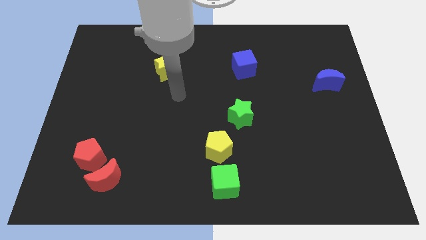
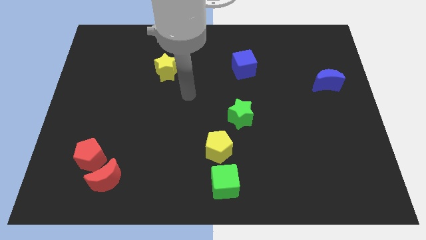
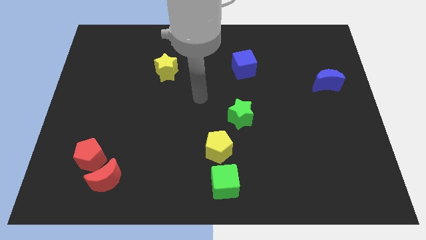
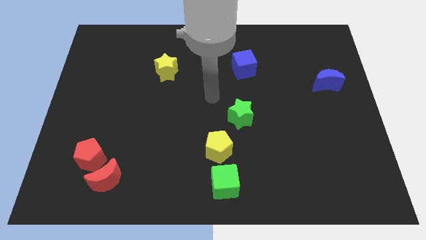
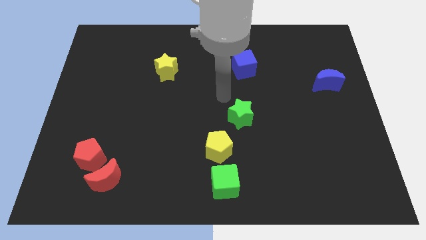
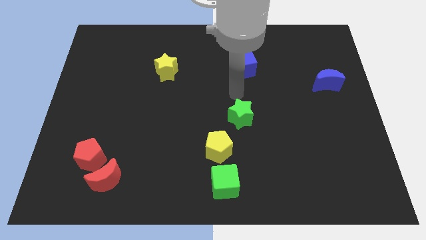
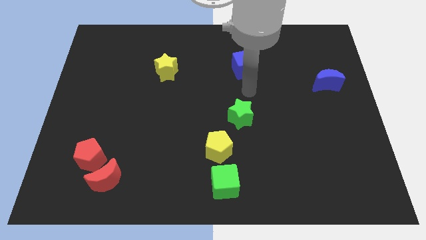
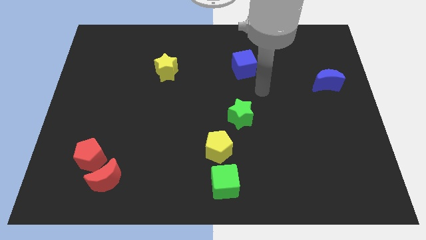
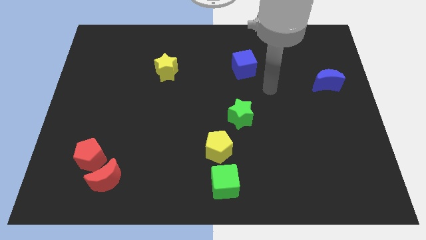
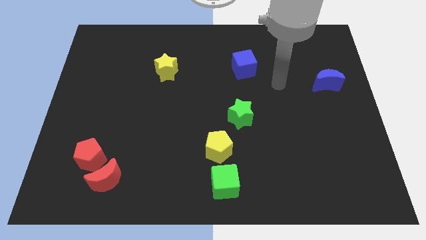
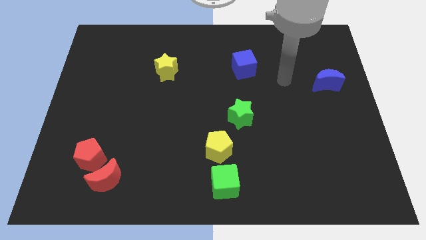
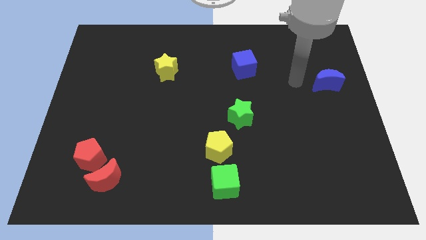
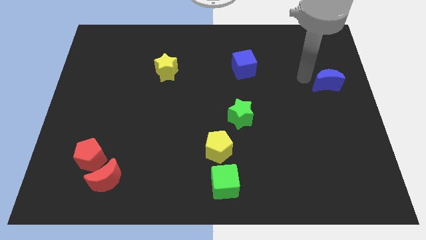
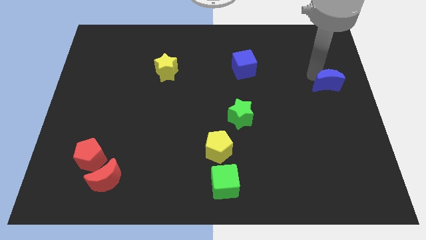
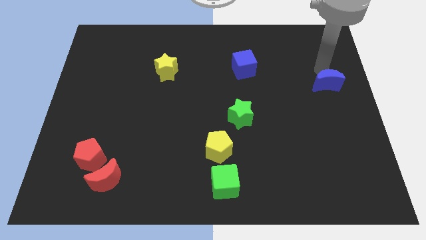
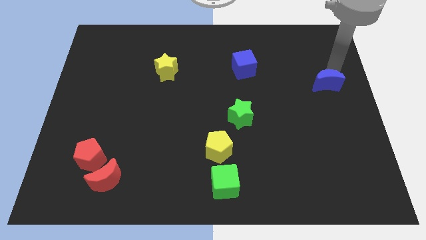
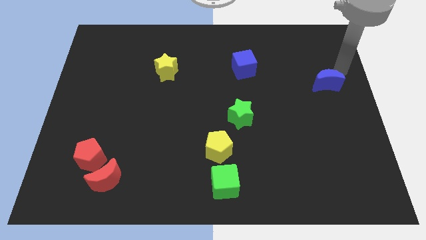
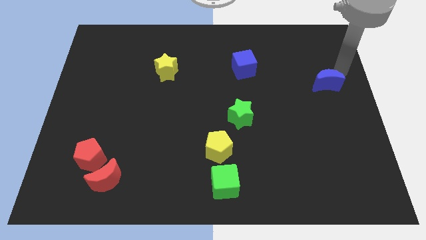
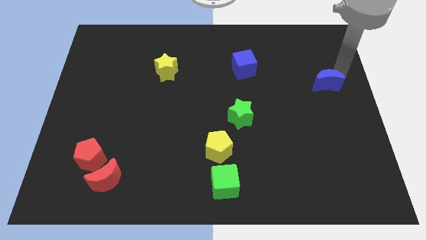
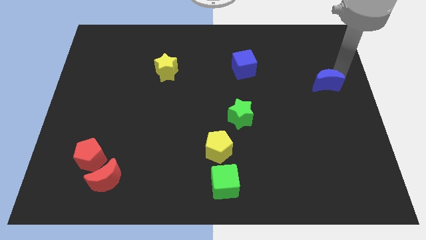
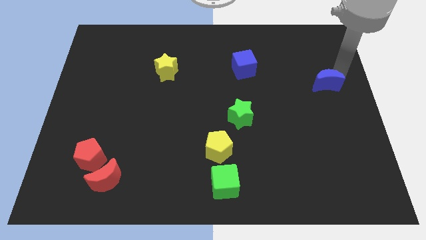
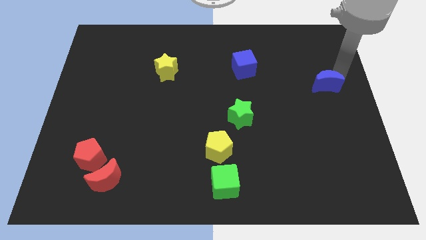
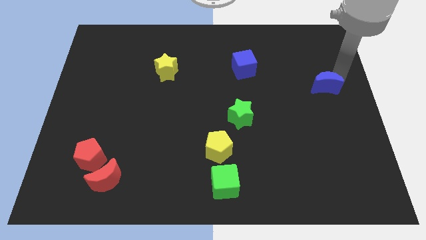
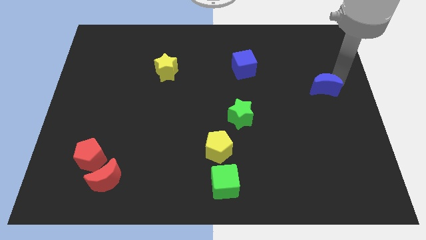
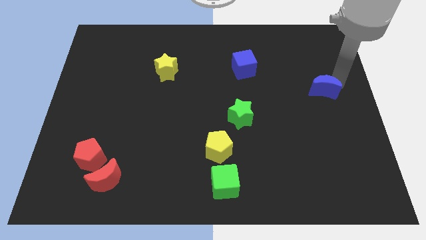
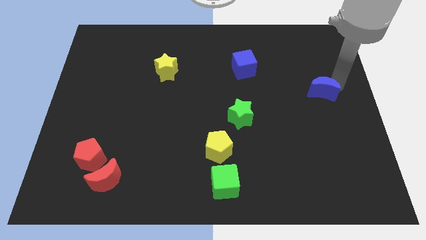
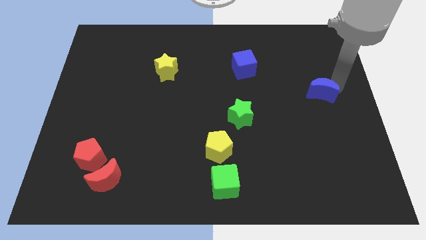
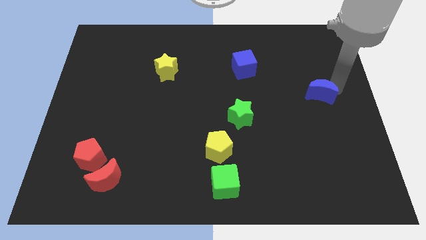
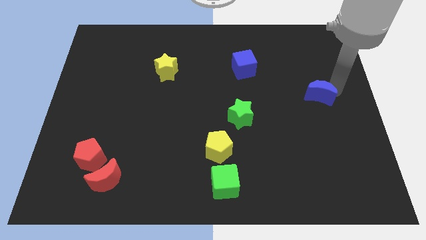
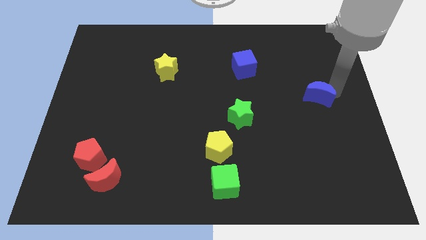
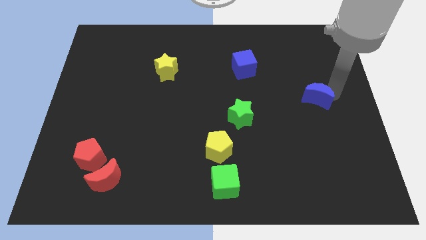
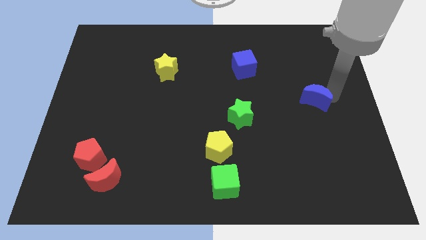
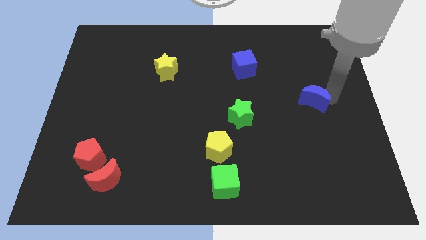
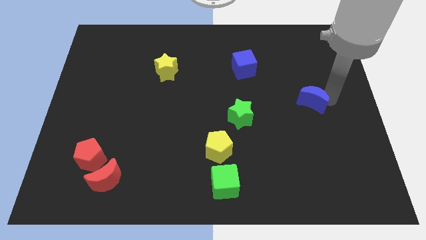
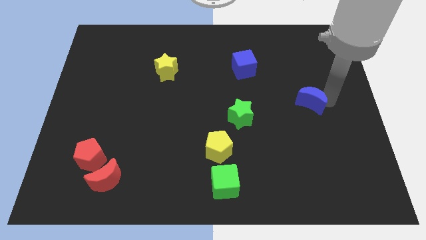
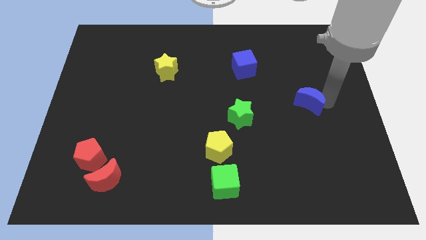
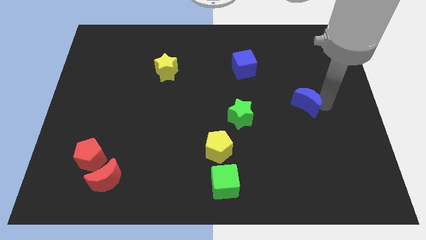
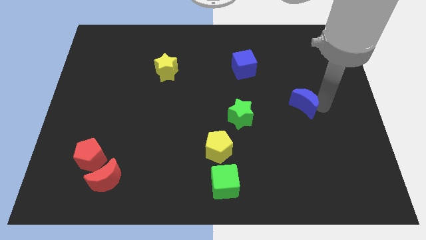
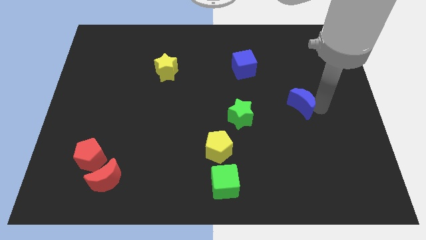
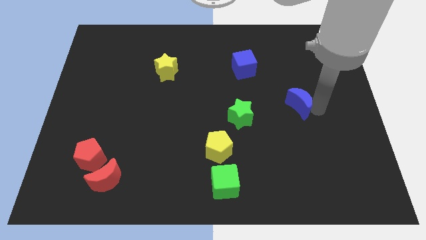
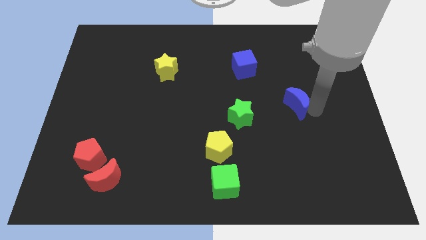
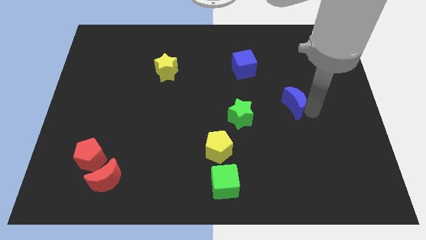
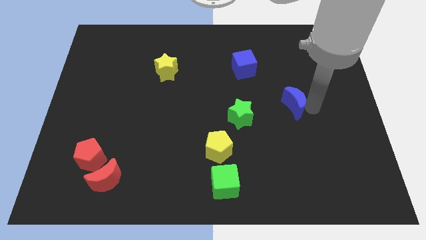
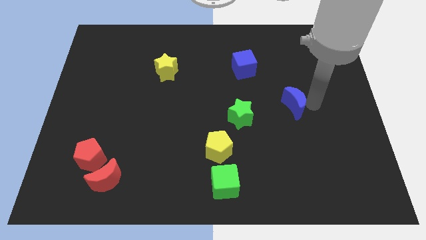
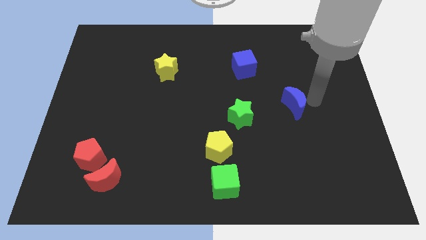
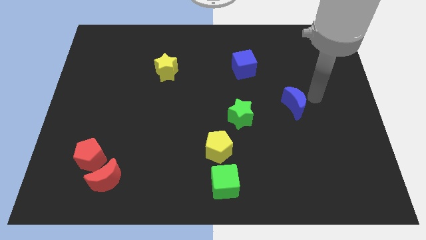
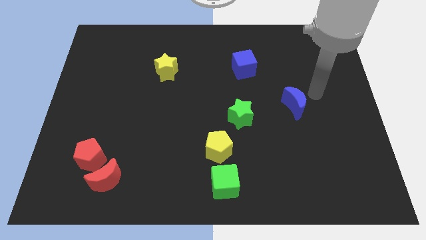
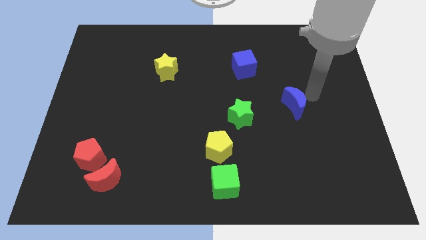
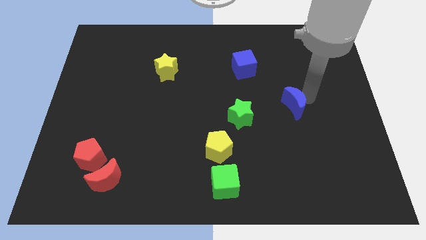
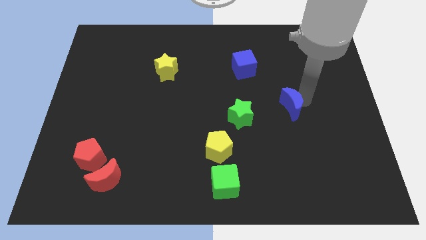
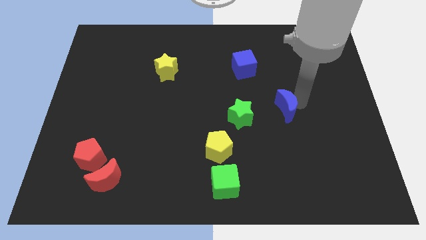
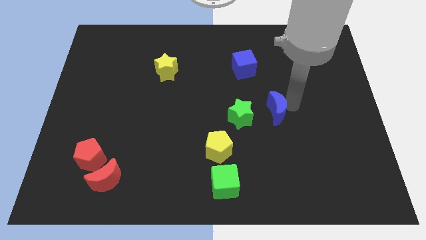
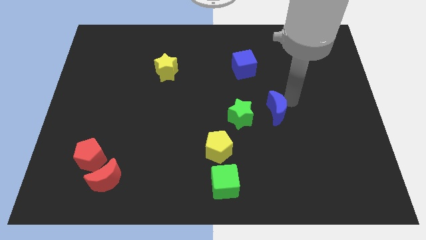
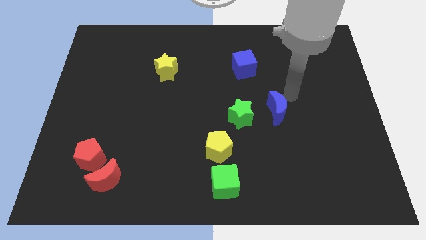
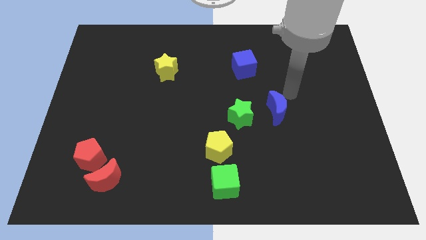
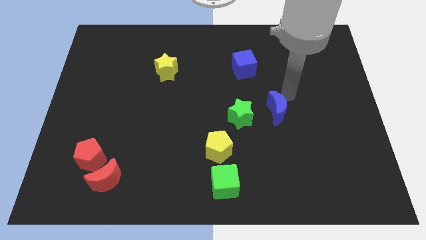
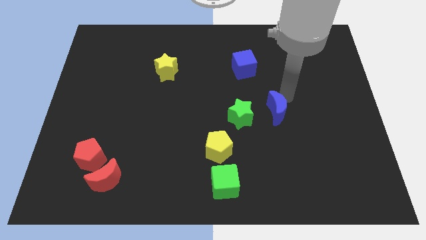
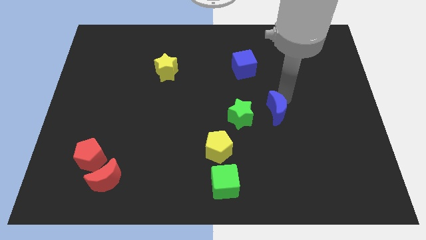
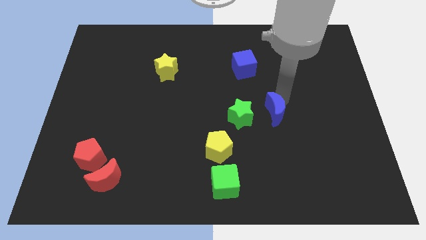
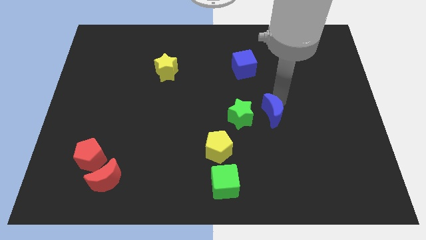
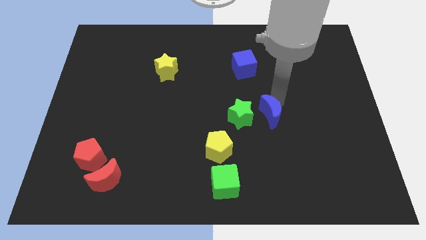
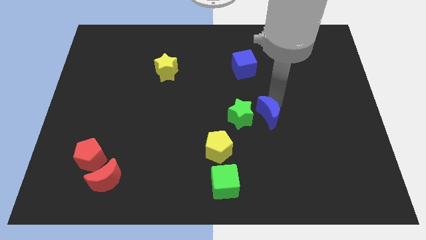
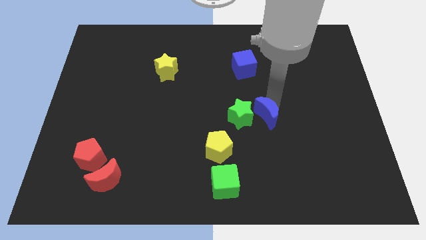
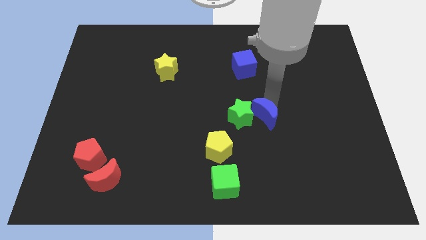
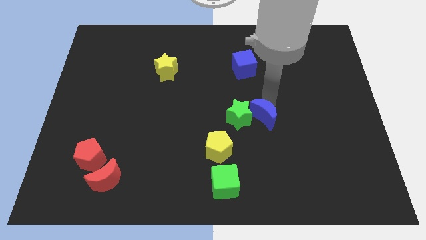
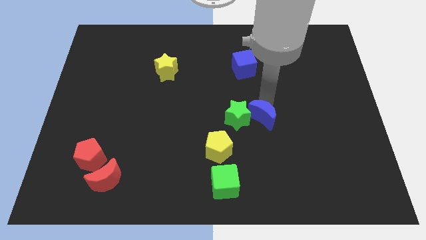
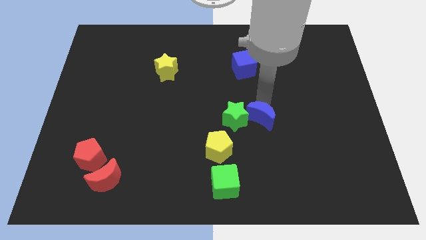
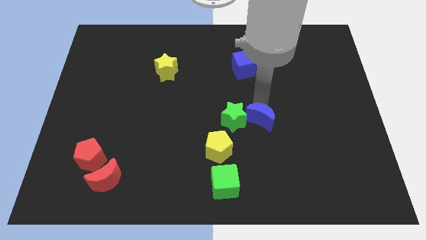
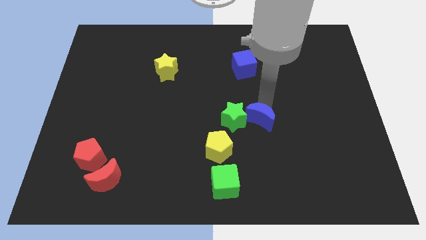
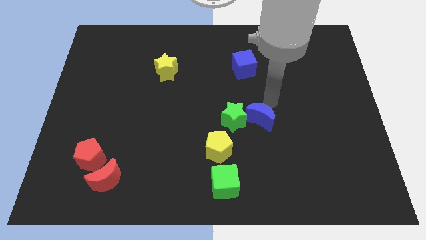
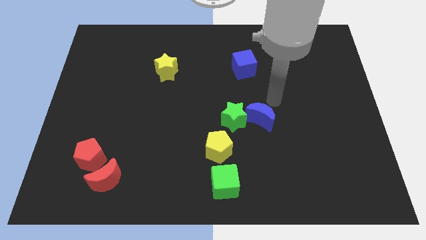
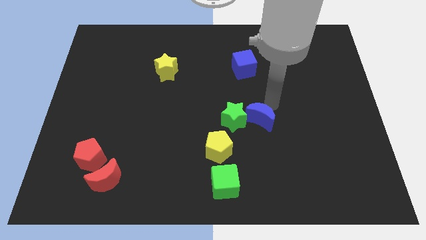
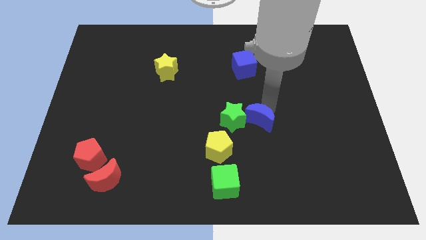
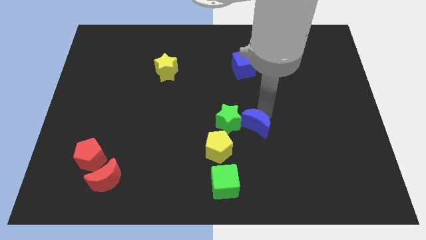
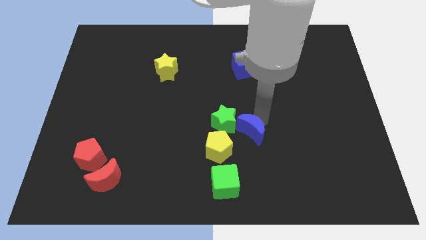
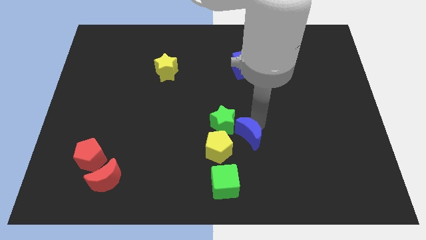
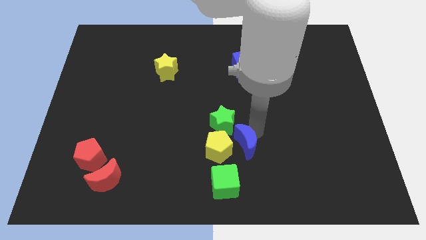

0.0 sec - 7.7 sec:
slide the blue moon to the yellow pentagon

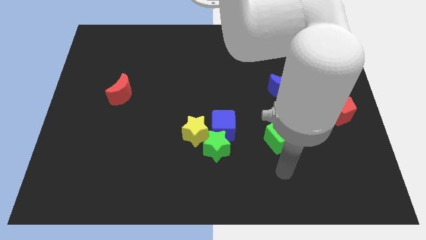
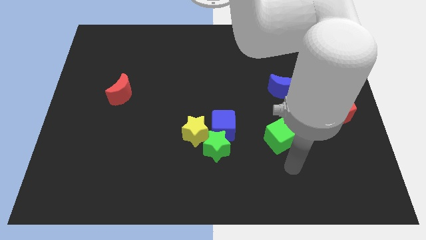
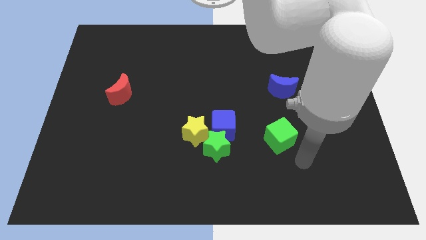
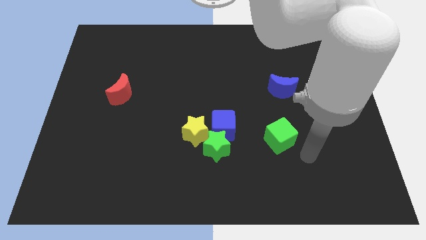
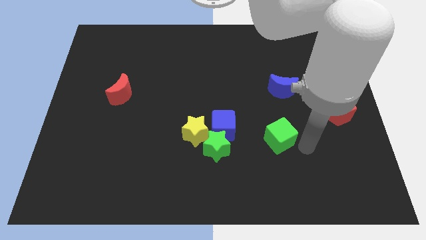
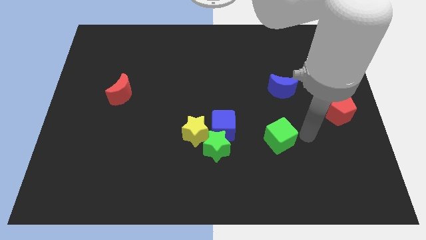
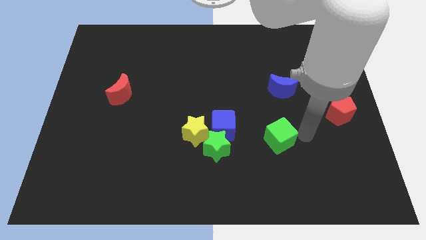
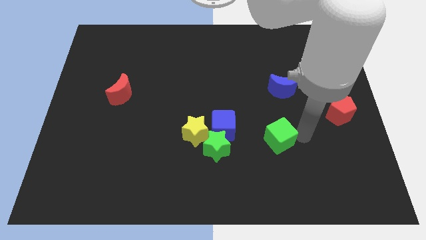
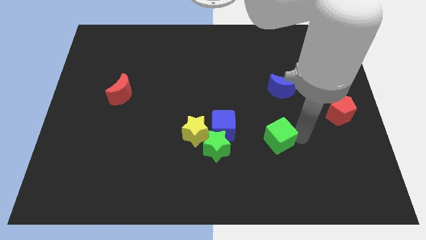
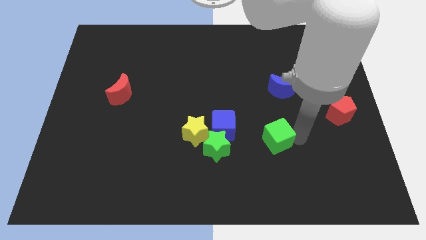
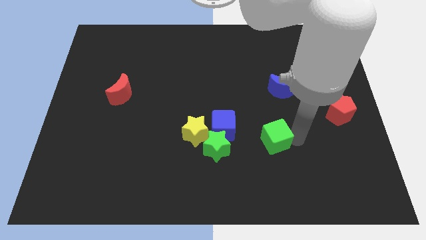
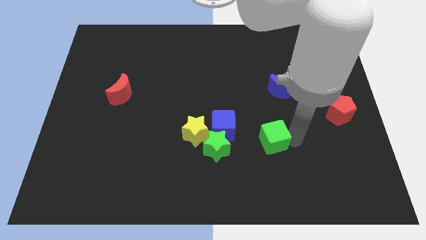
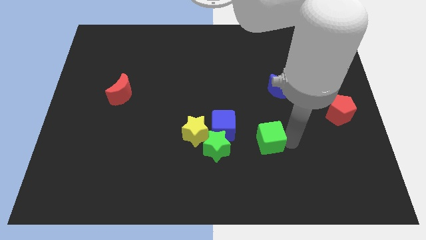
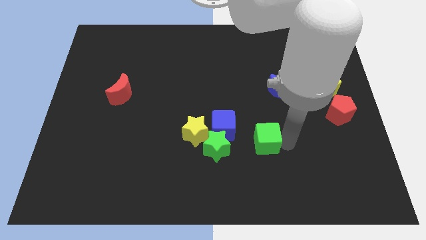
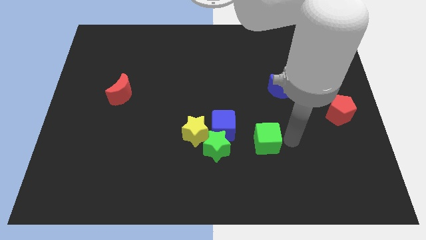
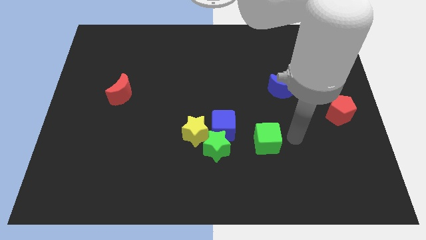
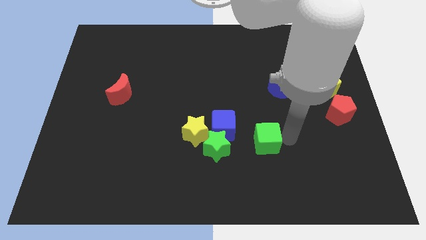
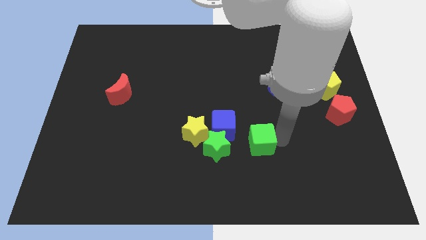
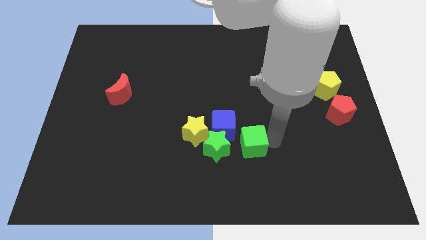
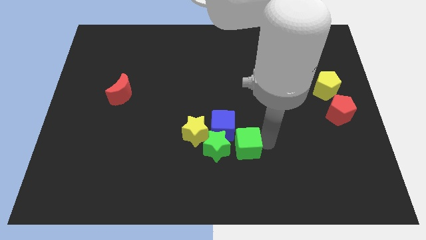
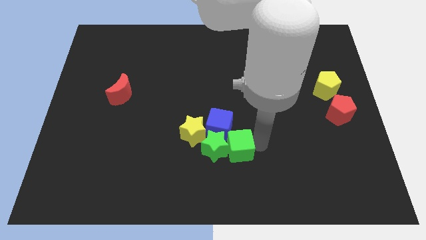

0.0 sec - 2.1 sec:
push the green cube to the green star
